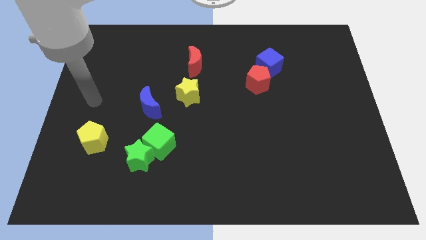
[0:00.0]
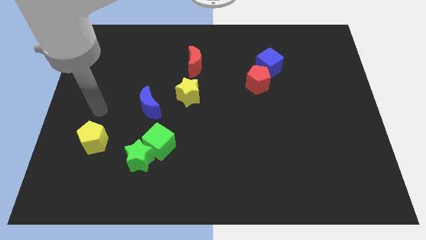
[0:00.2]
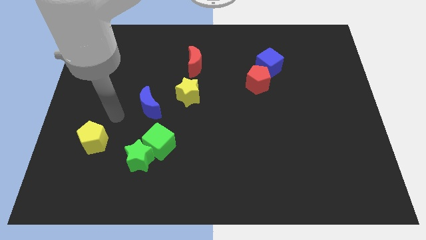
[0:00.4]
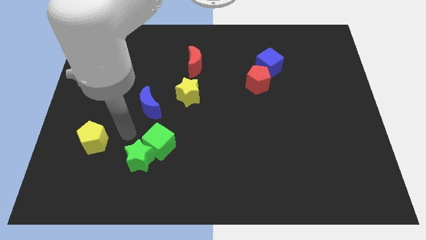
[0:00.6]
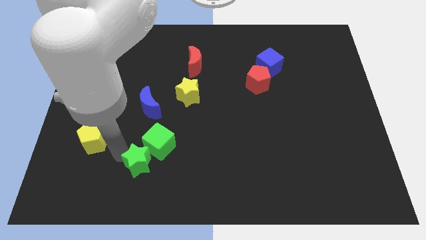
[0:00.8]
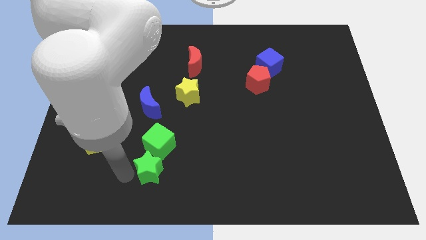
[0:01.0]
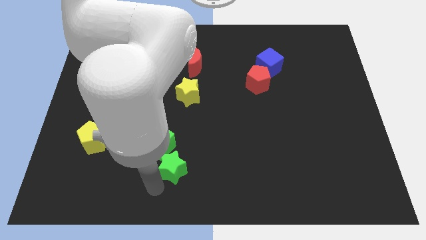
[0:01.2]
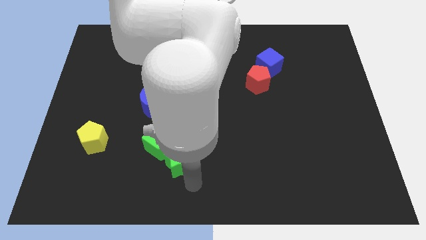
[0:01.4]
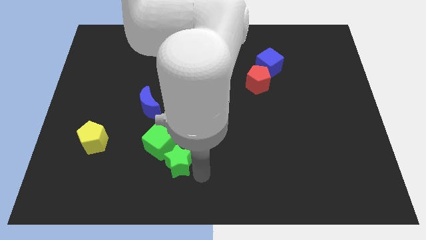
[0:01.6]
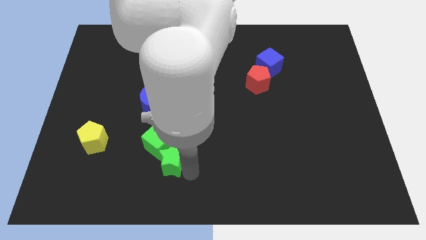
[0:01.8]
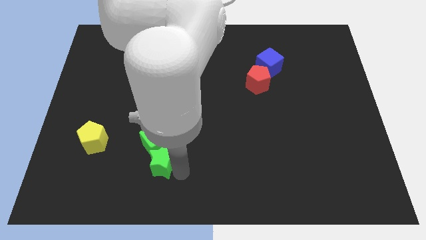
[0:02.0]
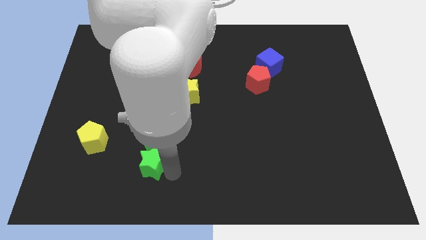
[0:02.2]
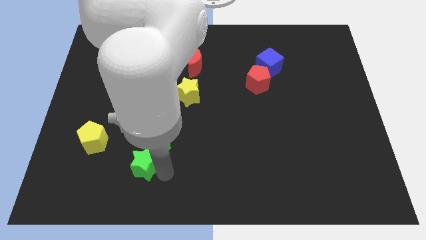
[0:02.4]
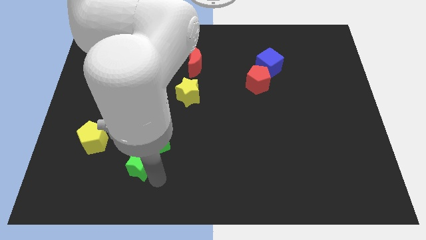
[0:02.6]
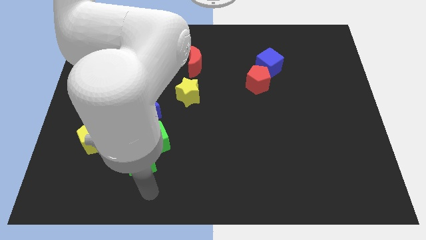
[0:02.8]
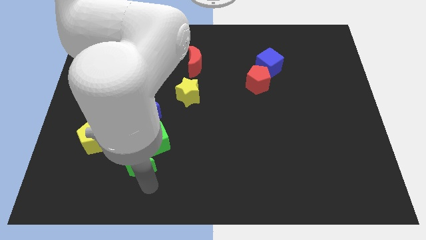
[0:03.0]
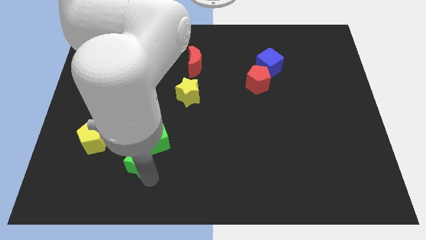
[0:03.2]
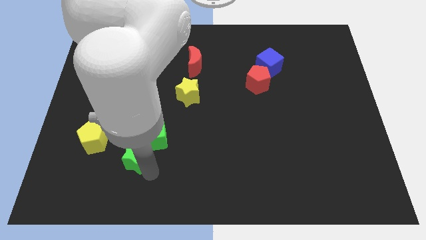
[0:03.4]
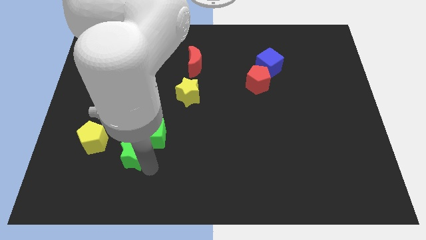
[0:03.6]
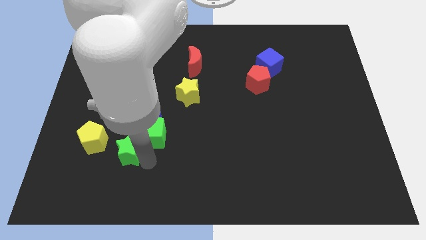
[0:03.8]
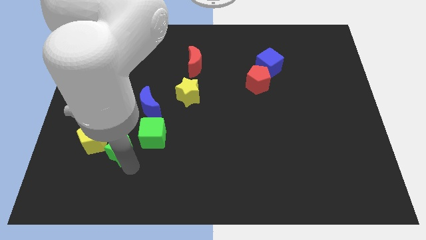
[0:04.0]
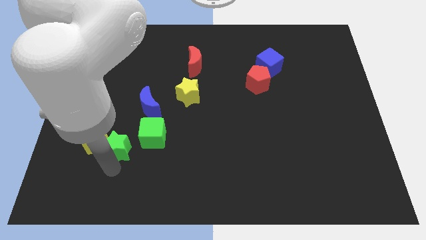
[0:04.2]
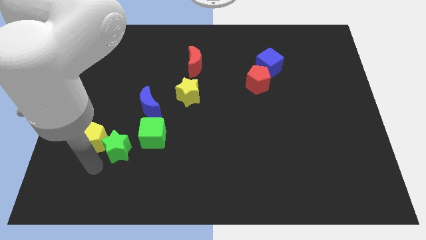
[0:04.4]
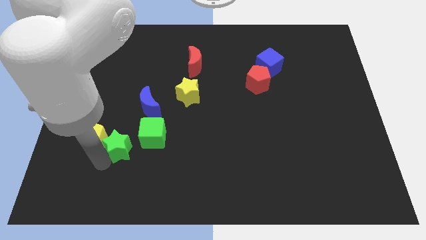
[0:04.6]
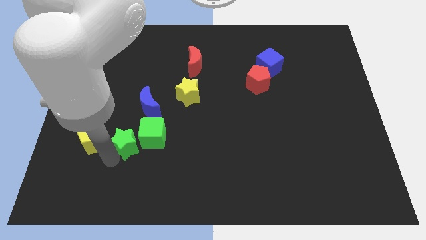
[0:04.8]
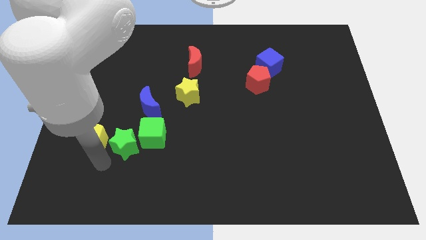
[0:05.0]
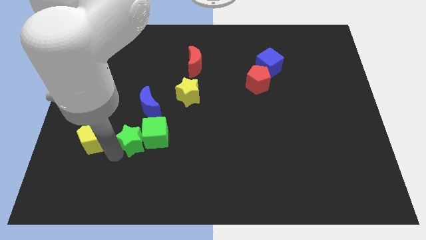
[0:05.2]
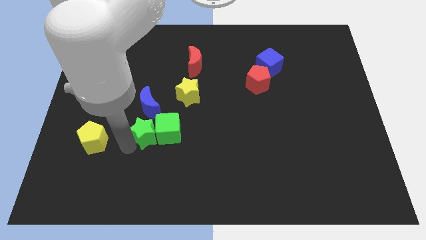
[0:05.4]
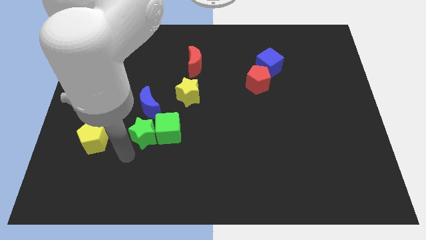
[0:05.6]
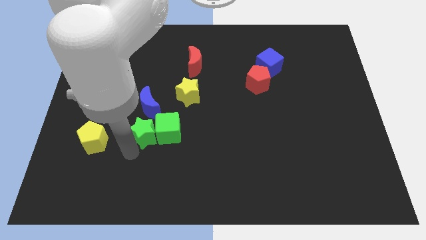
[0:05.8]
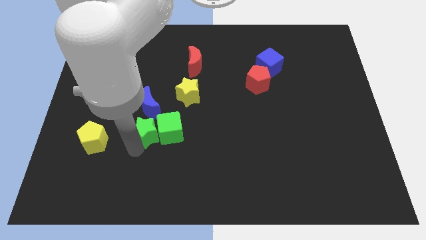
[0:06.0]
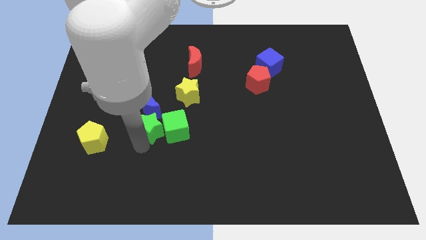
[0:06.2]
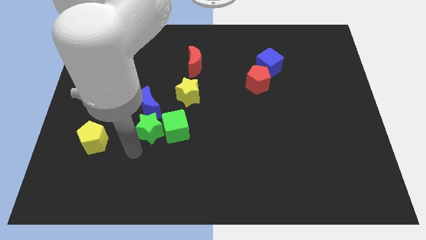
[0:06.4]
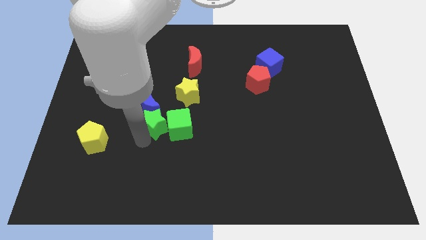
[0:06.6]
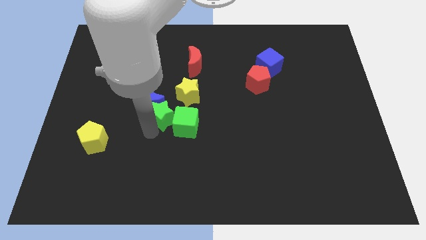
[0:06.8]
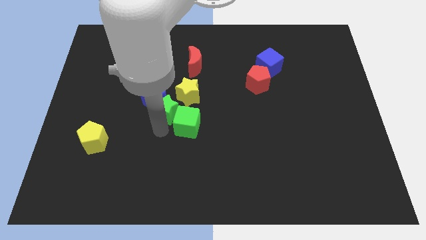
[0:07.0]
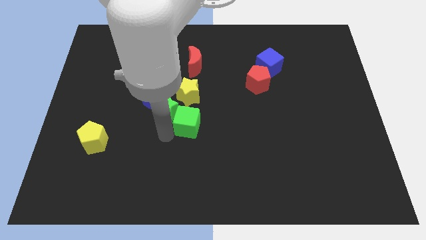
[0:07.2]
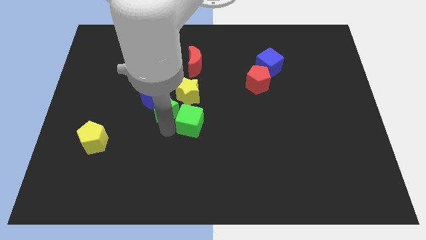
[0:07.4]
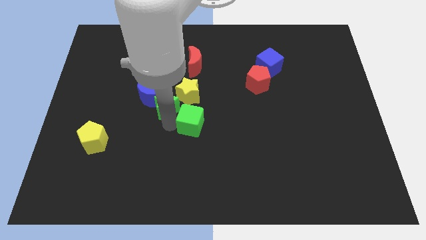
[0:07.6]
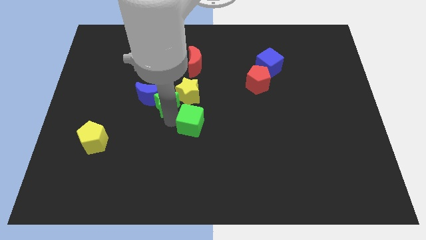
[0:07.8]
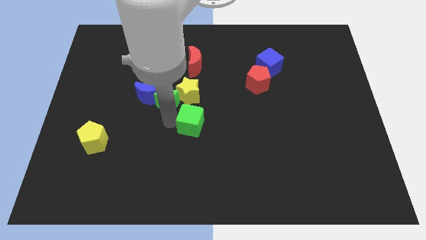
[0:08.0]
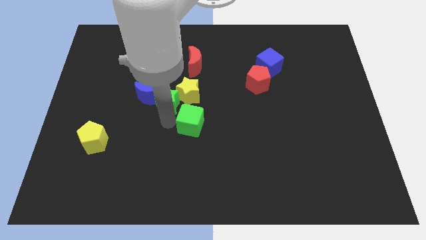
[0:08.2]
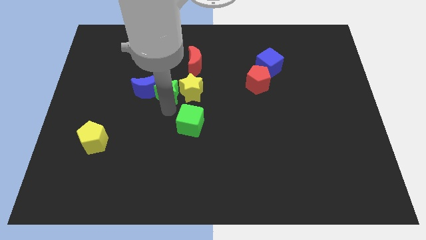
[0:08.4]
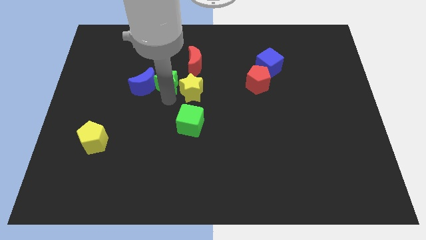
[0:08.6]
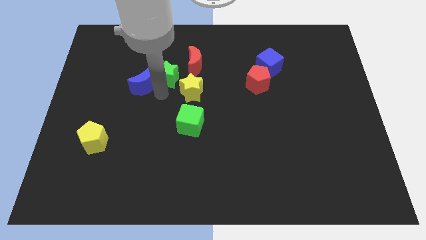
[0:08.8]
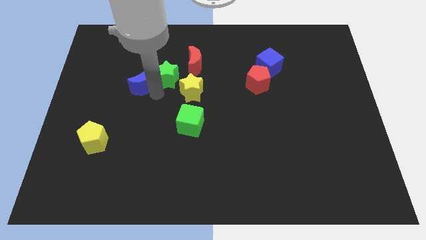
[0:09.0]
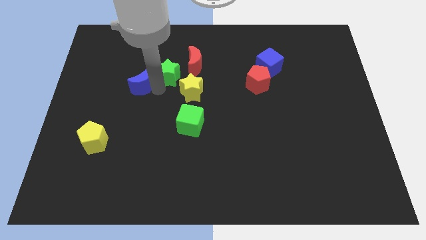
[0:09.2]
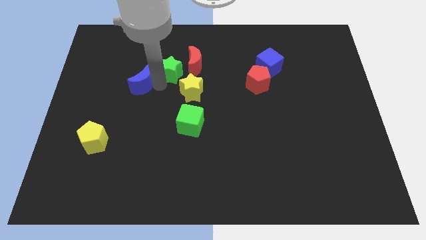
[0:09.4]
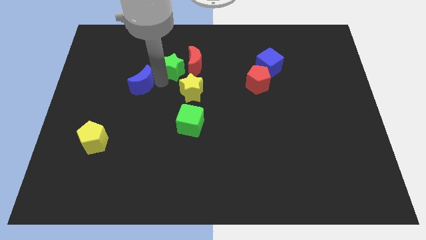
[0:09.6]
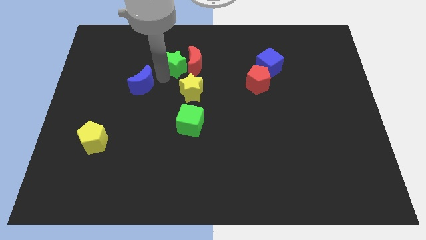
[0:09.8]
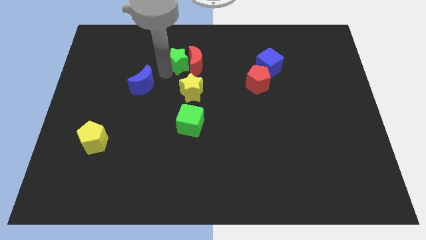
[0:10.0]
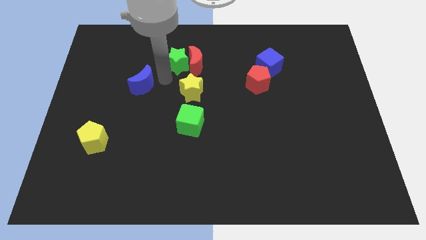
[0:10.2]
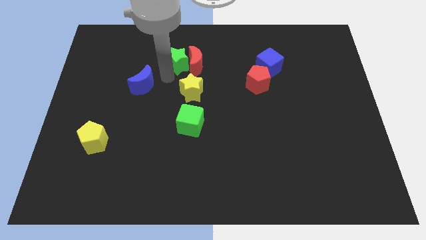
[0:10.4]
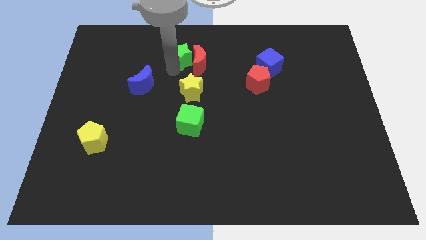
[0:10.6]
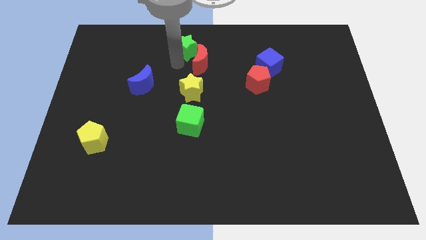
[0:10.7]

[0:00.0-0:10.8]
slide the green star to the towards your base

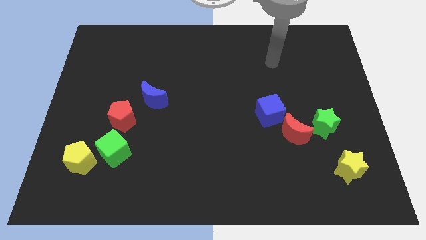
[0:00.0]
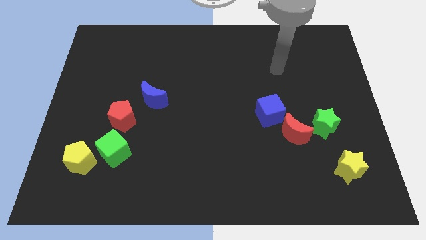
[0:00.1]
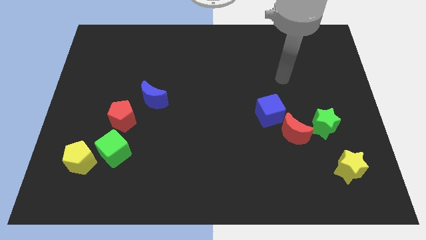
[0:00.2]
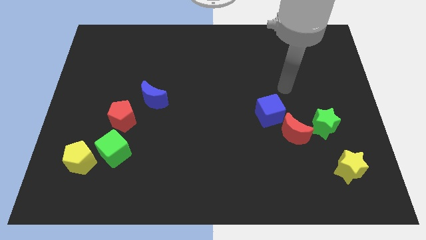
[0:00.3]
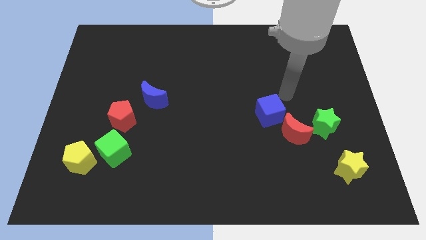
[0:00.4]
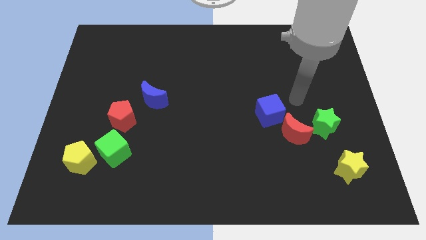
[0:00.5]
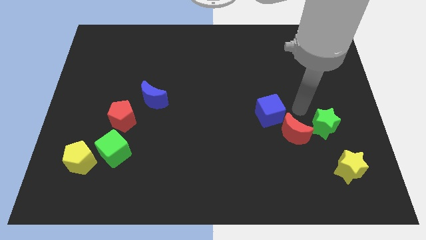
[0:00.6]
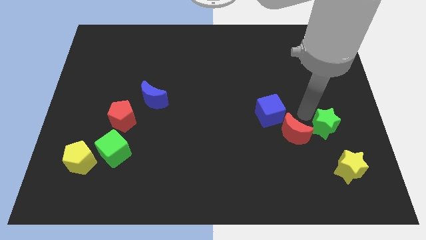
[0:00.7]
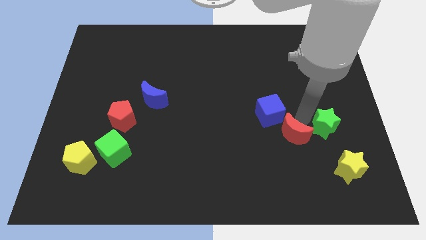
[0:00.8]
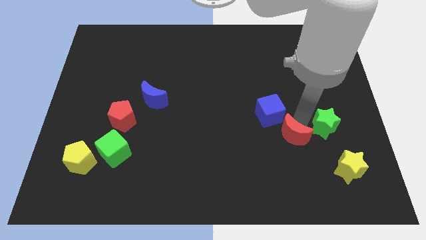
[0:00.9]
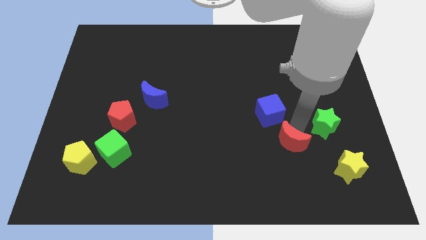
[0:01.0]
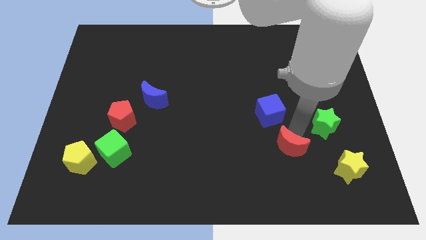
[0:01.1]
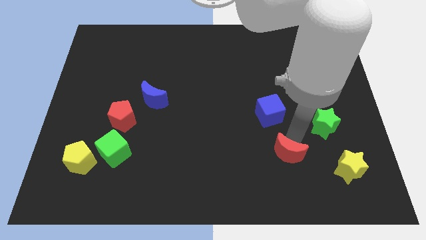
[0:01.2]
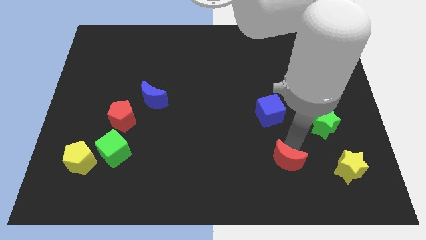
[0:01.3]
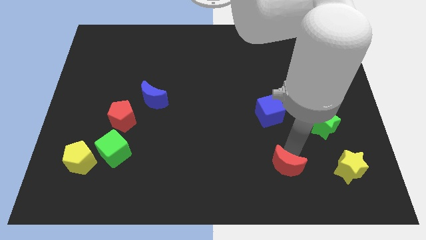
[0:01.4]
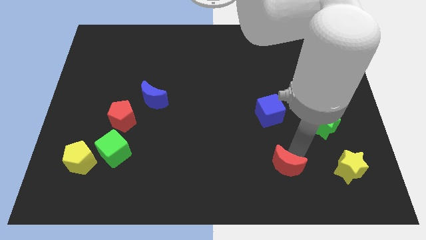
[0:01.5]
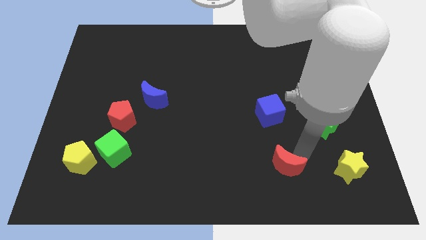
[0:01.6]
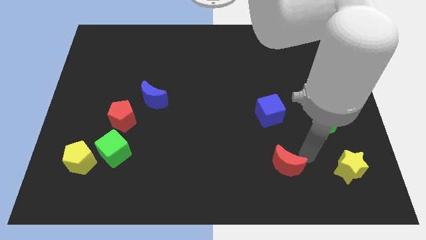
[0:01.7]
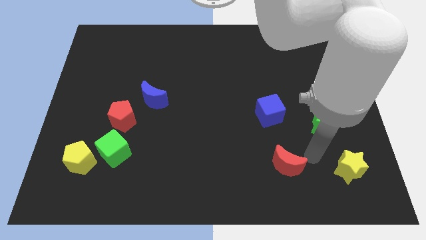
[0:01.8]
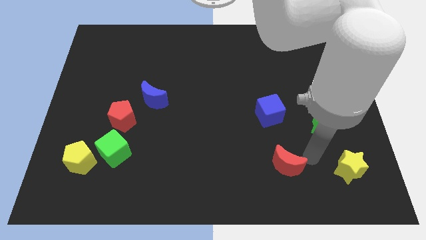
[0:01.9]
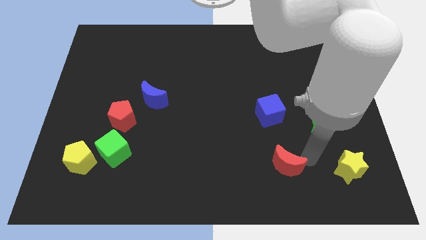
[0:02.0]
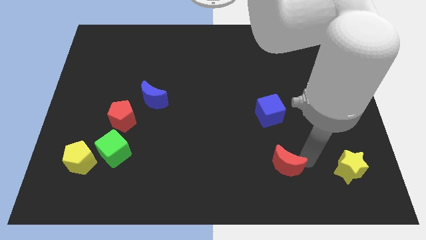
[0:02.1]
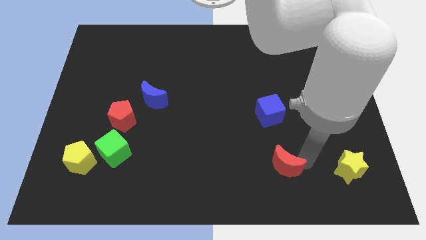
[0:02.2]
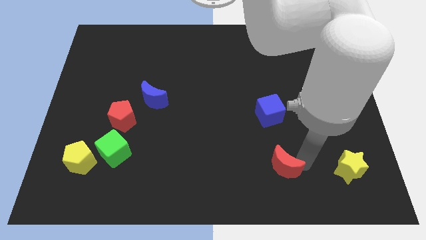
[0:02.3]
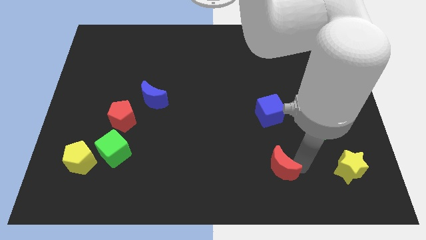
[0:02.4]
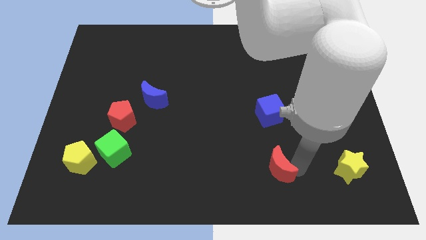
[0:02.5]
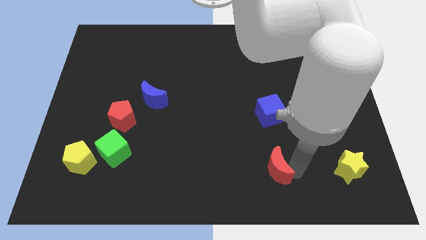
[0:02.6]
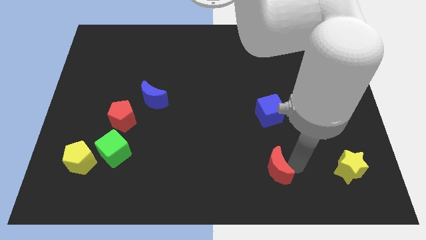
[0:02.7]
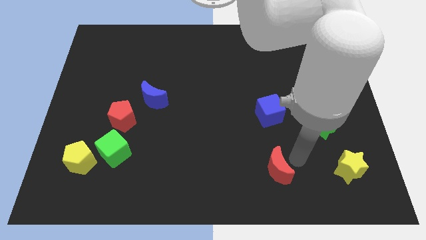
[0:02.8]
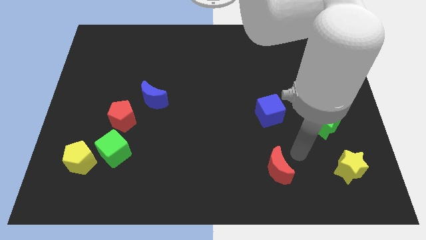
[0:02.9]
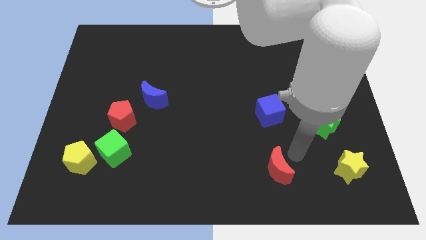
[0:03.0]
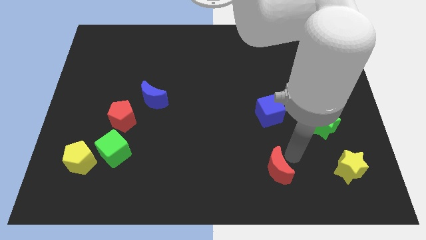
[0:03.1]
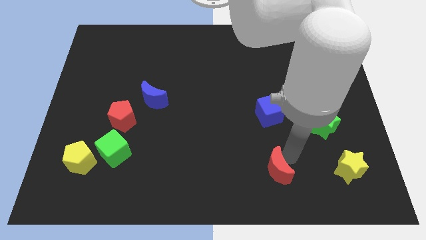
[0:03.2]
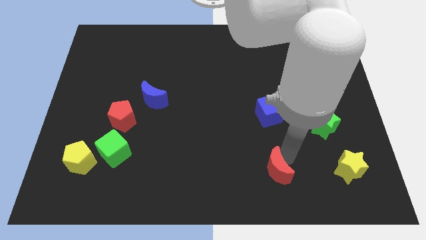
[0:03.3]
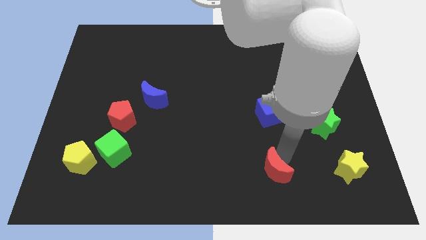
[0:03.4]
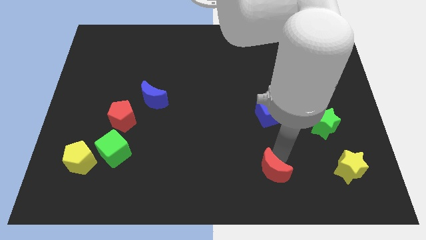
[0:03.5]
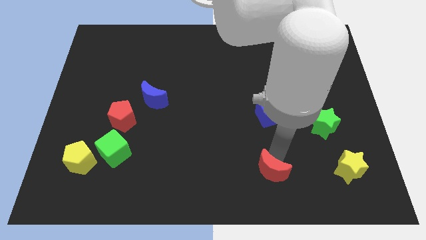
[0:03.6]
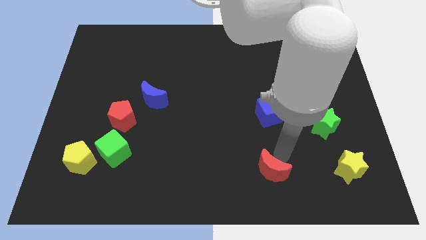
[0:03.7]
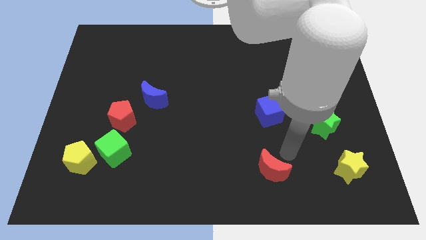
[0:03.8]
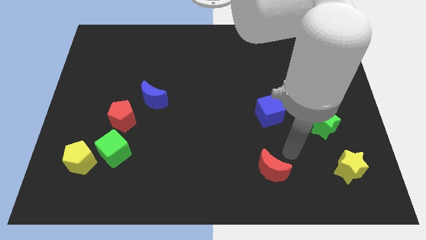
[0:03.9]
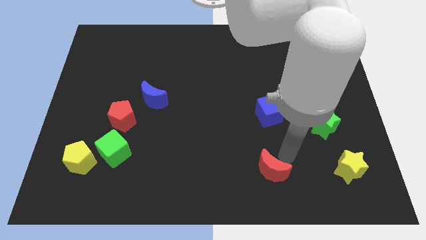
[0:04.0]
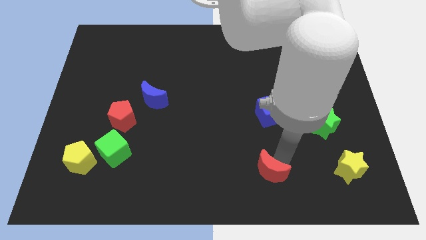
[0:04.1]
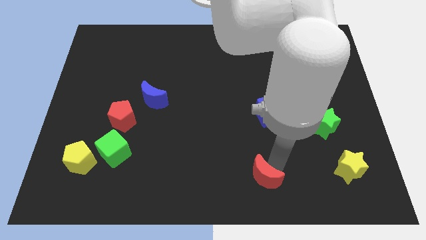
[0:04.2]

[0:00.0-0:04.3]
slide the red moon to the bottom side
